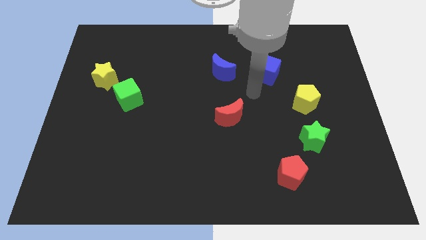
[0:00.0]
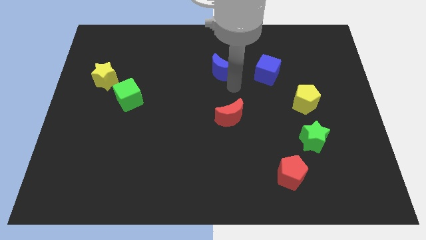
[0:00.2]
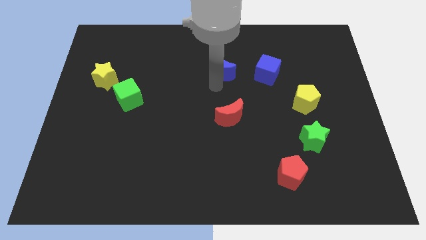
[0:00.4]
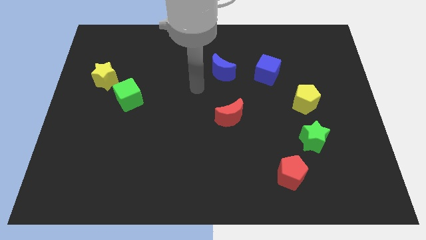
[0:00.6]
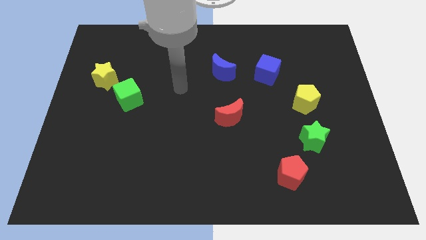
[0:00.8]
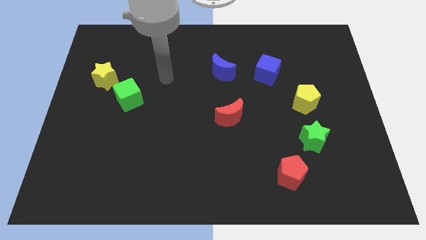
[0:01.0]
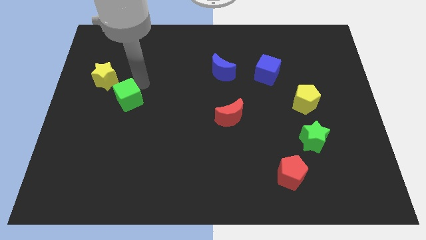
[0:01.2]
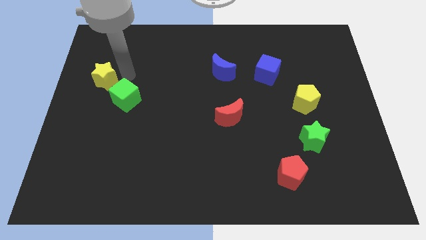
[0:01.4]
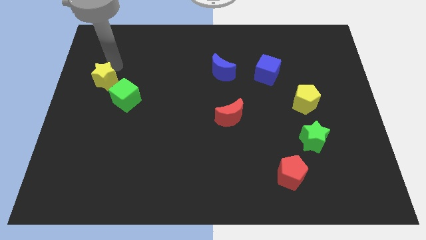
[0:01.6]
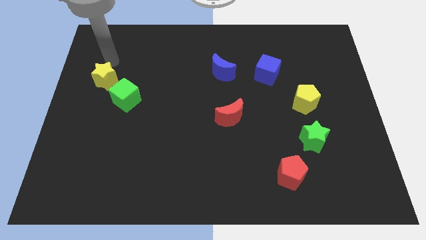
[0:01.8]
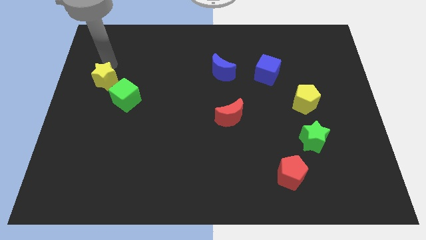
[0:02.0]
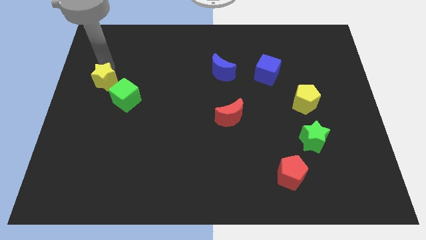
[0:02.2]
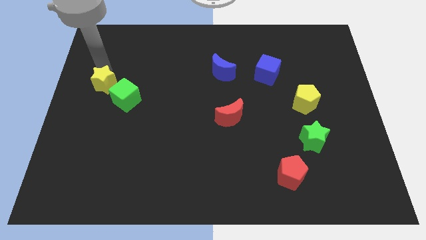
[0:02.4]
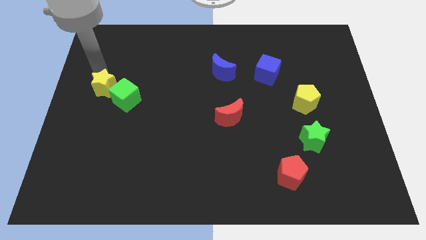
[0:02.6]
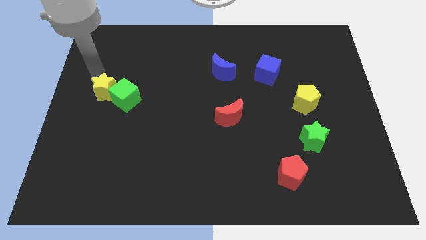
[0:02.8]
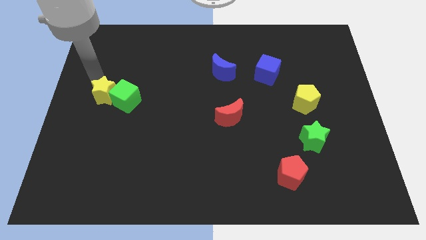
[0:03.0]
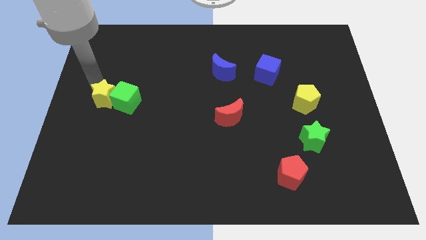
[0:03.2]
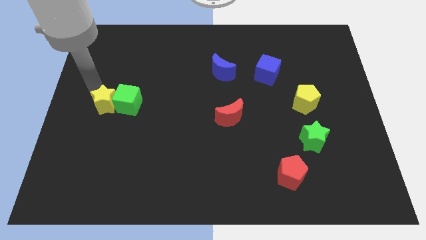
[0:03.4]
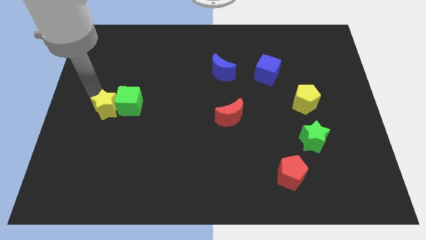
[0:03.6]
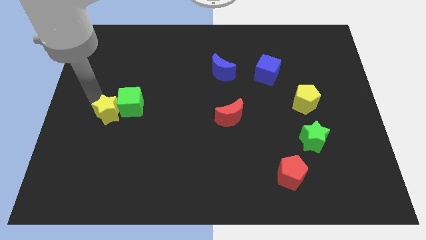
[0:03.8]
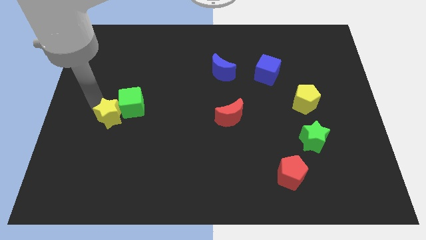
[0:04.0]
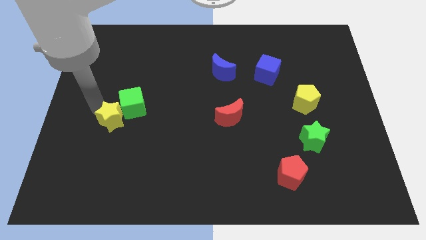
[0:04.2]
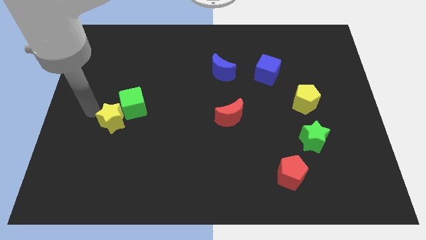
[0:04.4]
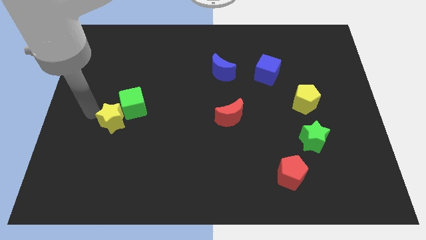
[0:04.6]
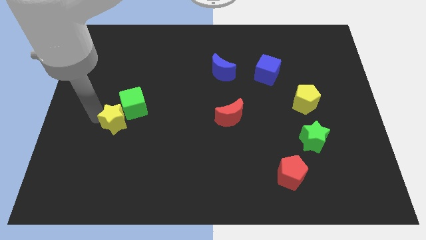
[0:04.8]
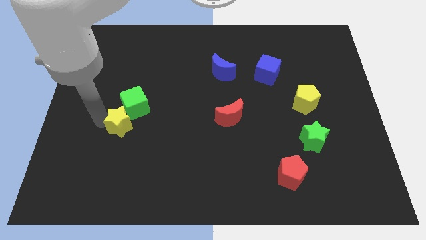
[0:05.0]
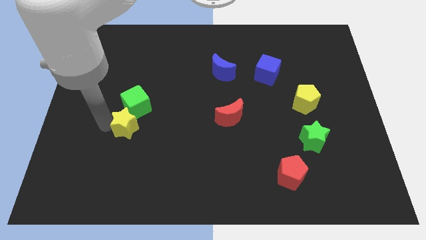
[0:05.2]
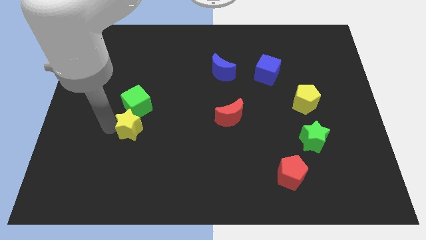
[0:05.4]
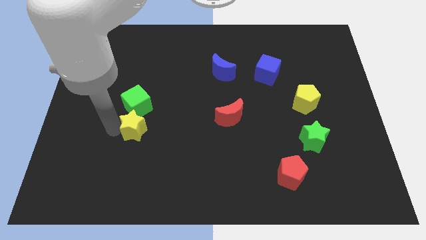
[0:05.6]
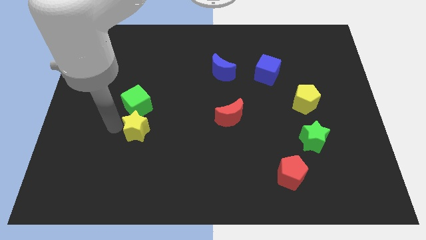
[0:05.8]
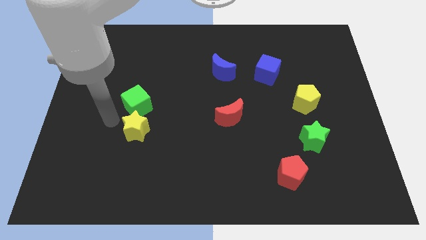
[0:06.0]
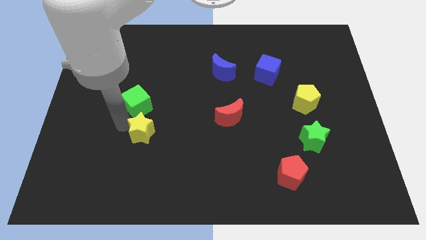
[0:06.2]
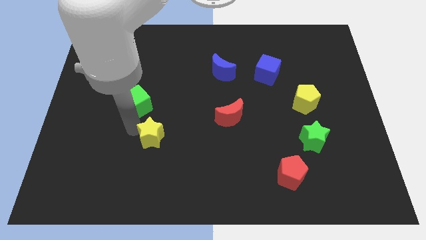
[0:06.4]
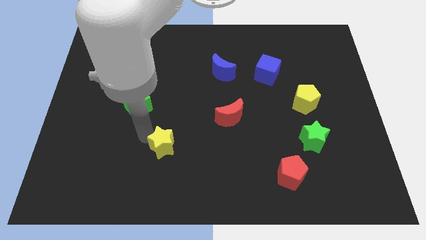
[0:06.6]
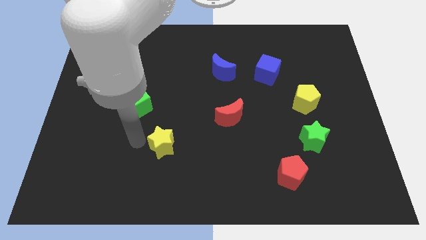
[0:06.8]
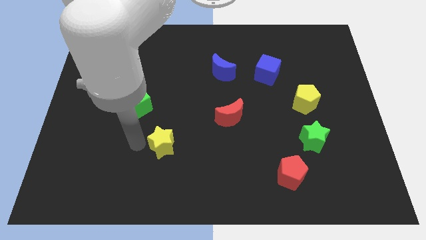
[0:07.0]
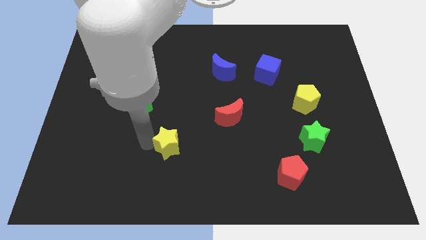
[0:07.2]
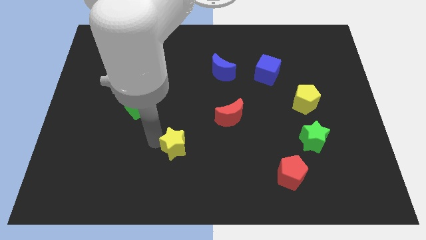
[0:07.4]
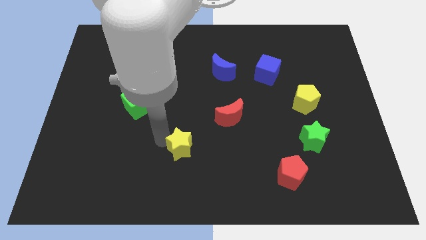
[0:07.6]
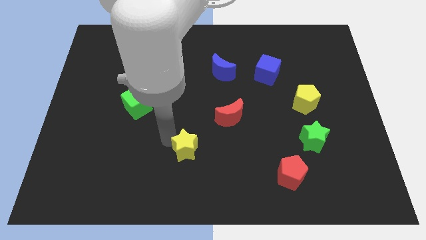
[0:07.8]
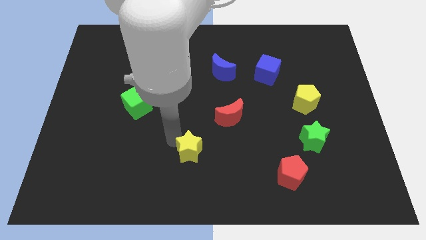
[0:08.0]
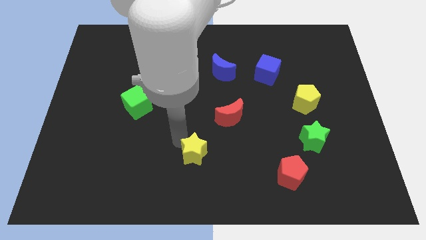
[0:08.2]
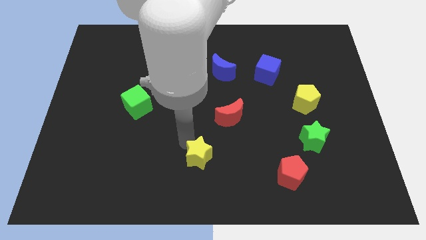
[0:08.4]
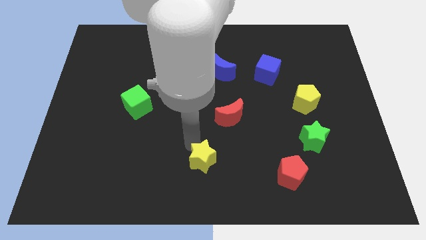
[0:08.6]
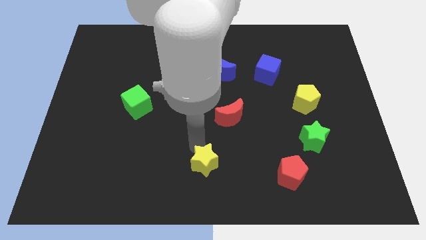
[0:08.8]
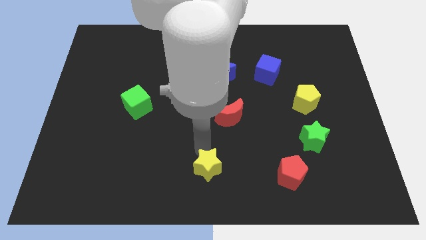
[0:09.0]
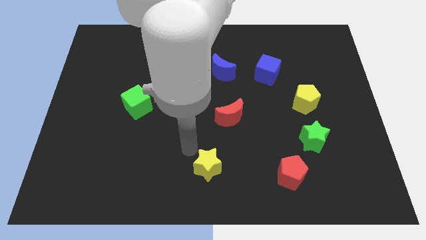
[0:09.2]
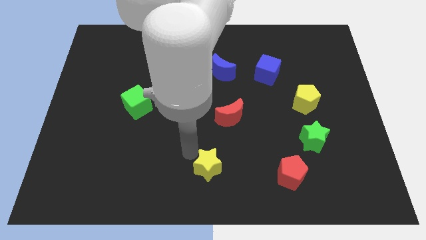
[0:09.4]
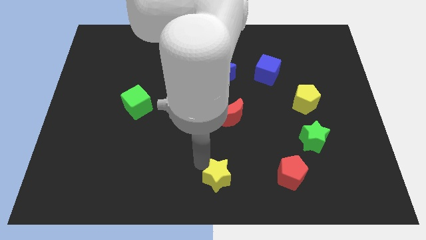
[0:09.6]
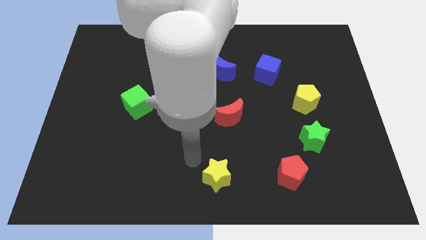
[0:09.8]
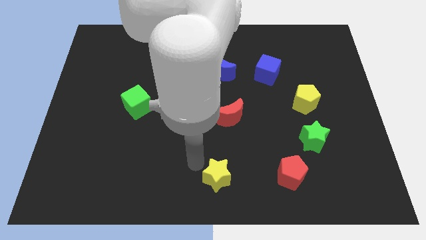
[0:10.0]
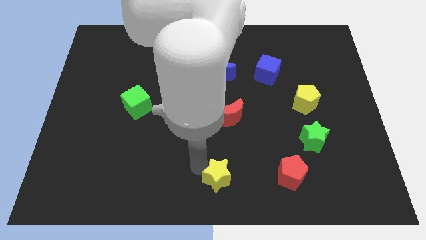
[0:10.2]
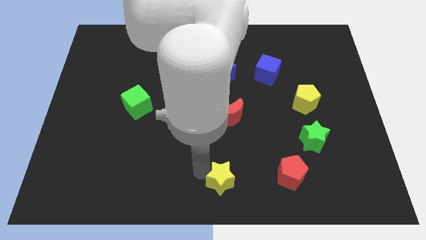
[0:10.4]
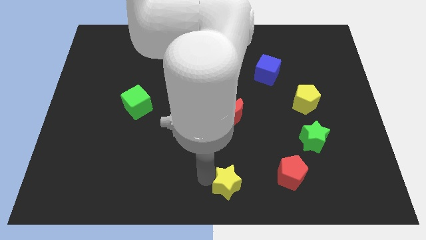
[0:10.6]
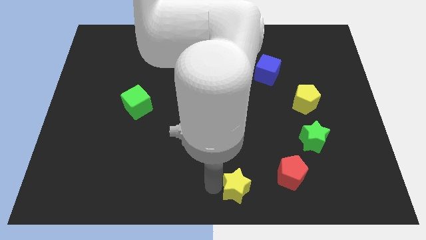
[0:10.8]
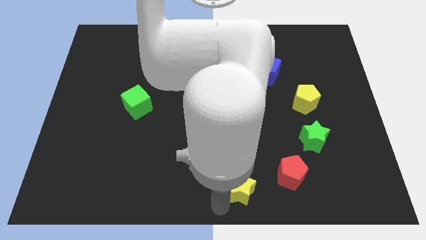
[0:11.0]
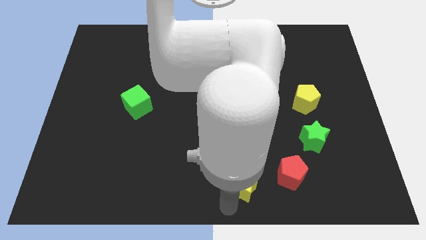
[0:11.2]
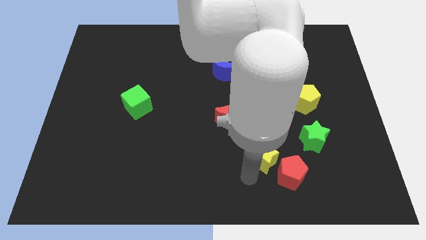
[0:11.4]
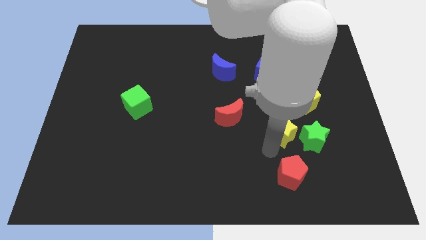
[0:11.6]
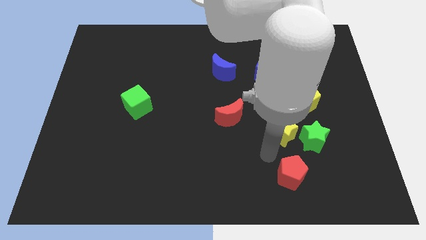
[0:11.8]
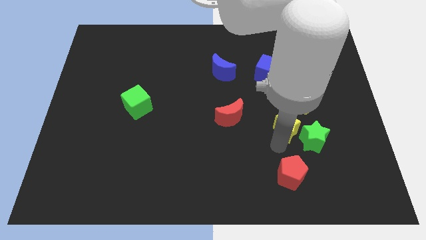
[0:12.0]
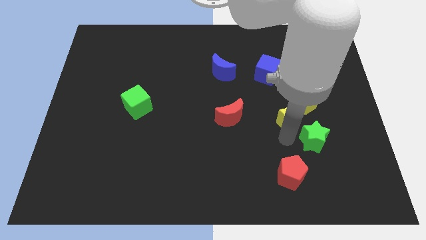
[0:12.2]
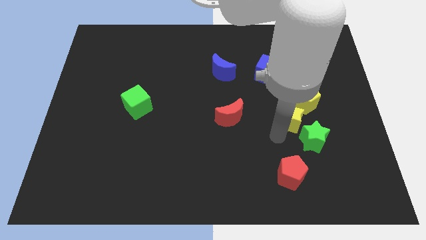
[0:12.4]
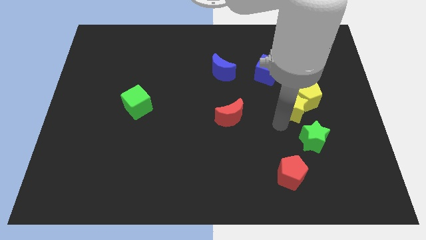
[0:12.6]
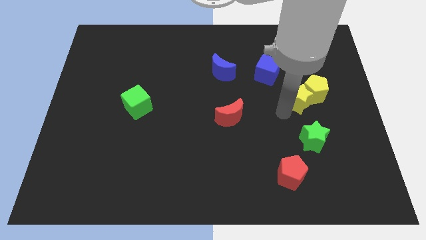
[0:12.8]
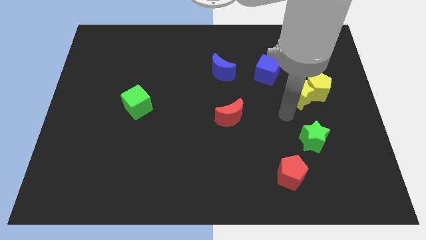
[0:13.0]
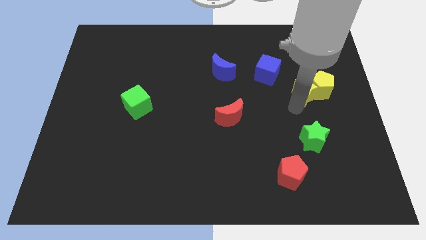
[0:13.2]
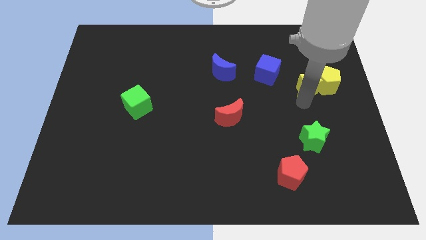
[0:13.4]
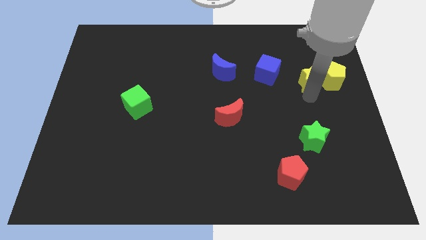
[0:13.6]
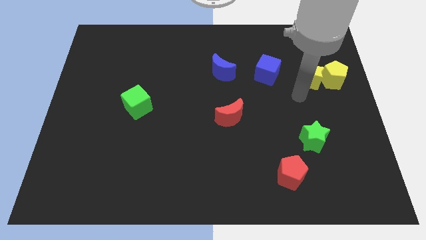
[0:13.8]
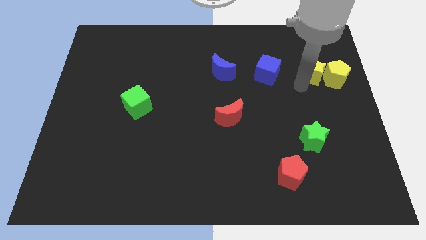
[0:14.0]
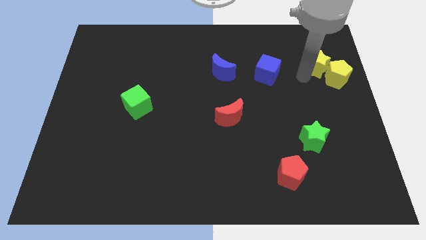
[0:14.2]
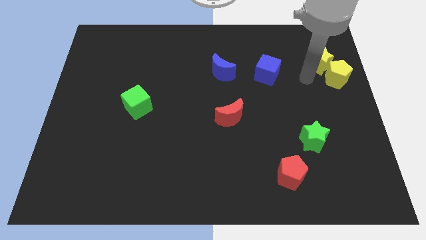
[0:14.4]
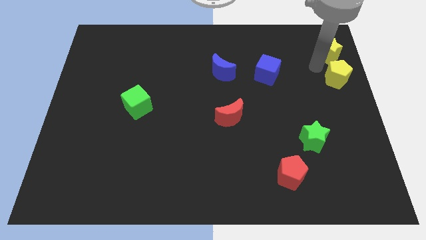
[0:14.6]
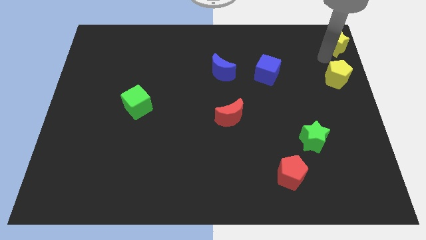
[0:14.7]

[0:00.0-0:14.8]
slide the yellow star to the upper right corner
